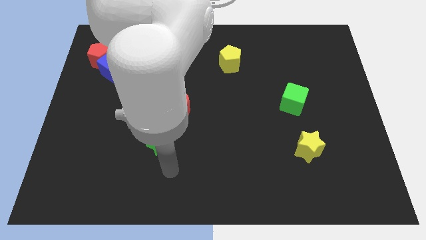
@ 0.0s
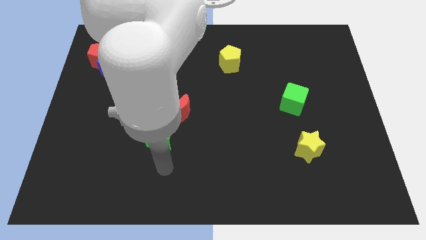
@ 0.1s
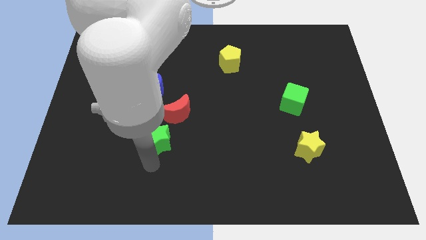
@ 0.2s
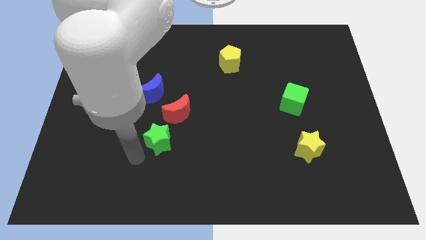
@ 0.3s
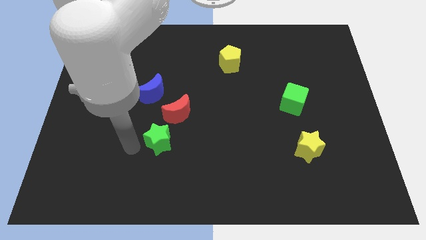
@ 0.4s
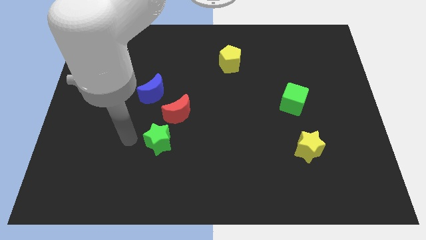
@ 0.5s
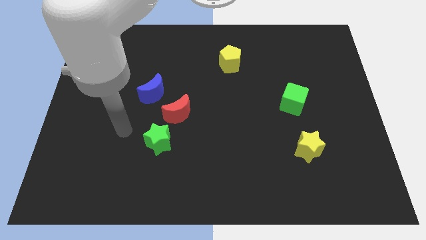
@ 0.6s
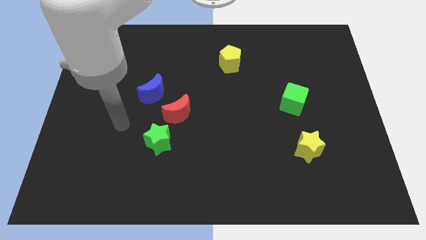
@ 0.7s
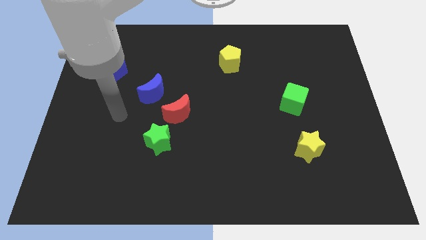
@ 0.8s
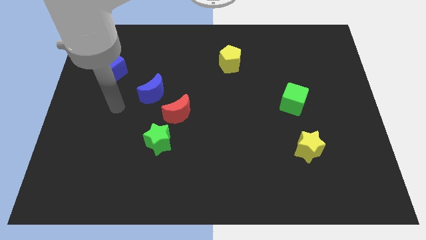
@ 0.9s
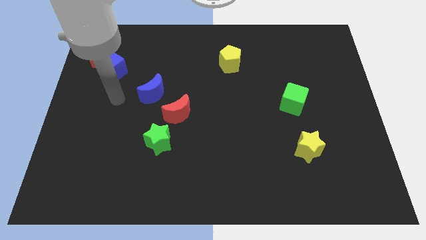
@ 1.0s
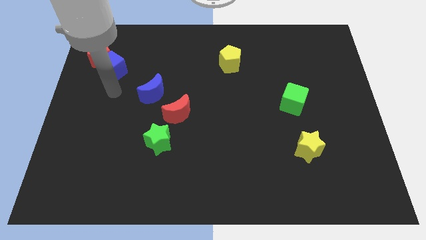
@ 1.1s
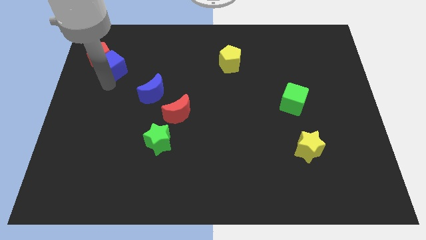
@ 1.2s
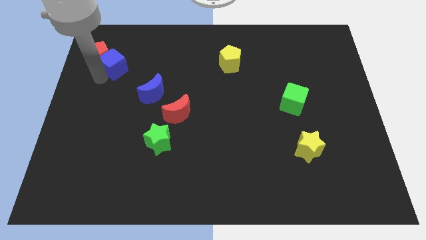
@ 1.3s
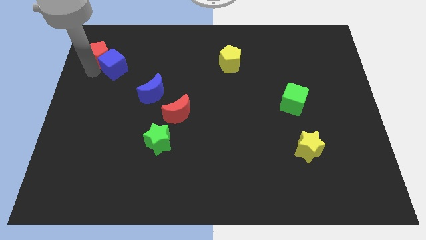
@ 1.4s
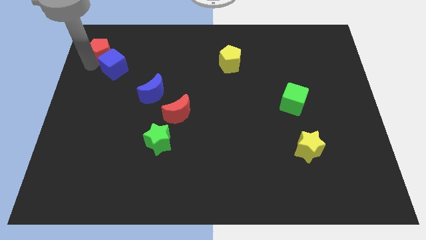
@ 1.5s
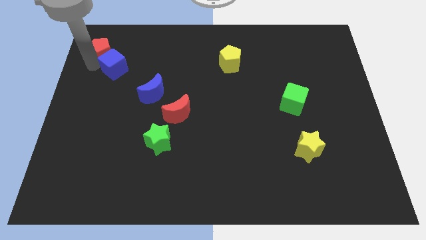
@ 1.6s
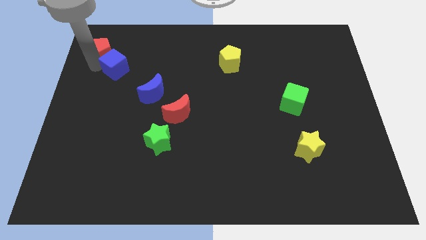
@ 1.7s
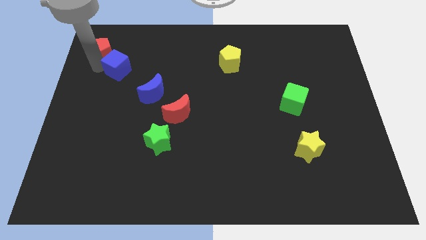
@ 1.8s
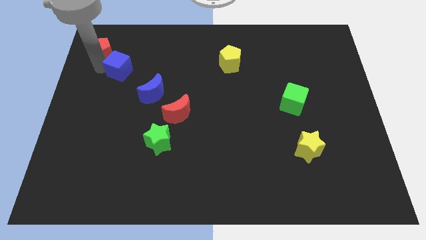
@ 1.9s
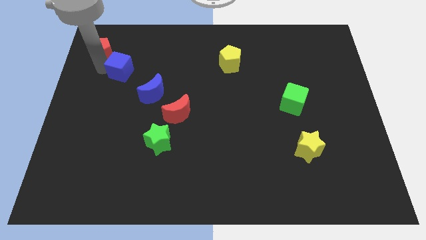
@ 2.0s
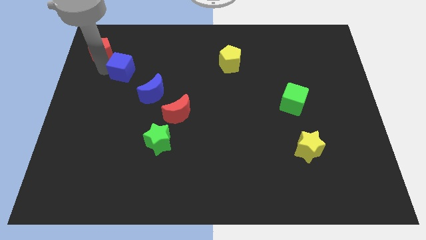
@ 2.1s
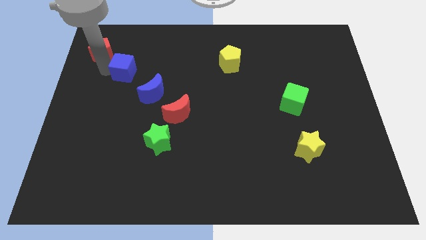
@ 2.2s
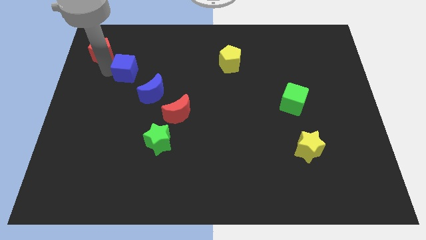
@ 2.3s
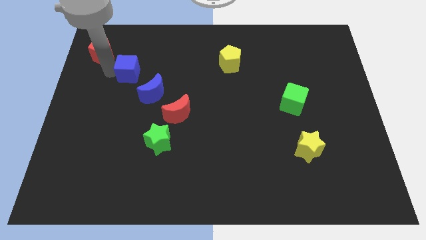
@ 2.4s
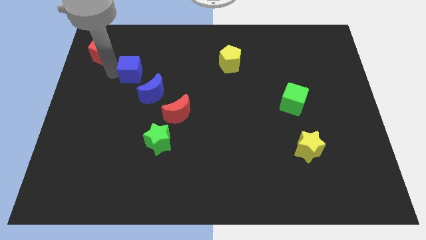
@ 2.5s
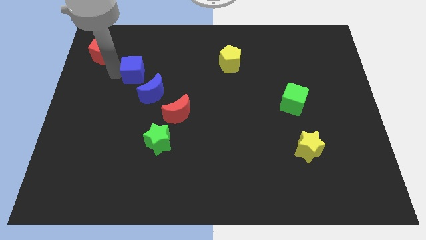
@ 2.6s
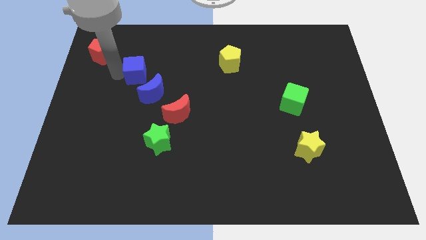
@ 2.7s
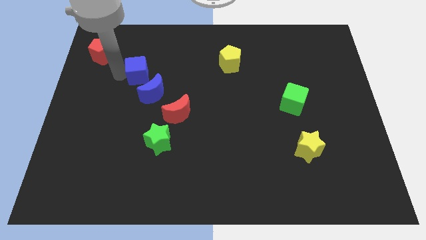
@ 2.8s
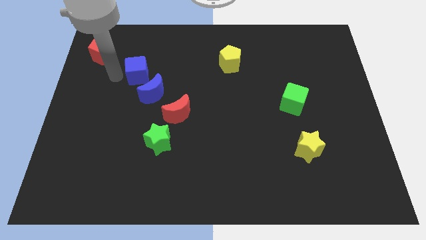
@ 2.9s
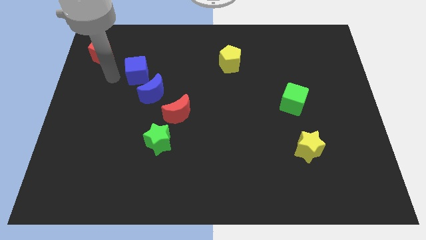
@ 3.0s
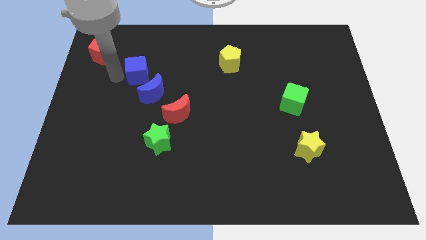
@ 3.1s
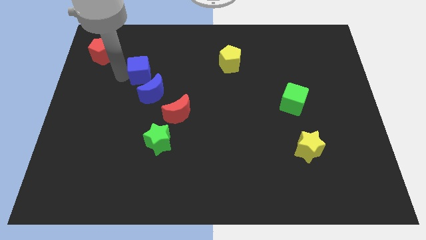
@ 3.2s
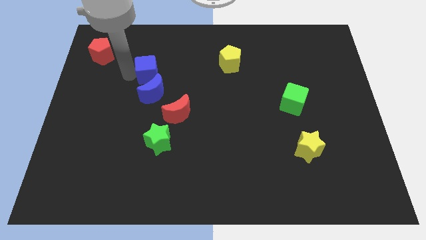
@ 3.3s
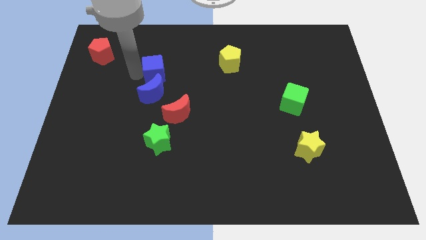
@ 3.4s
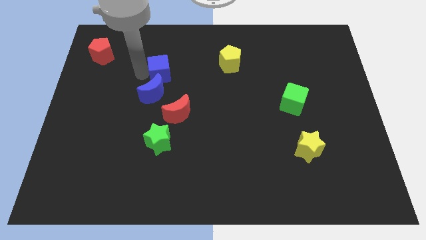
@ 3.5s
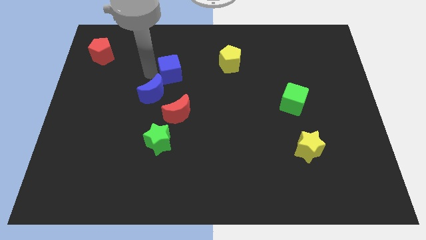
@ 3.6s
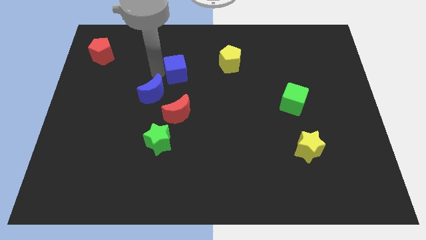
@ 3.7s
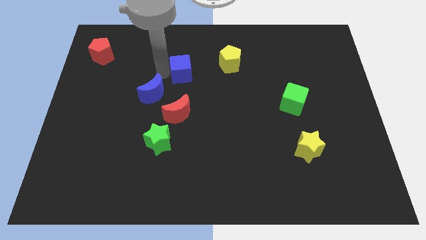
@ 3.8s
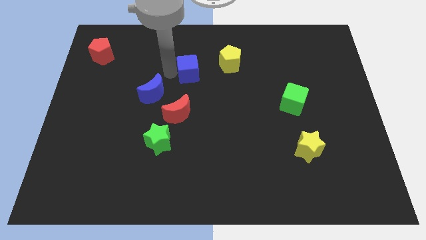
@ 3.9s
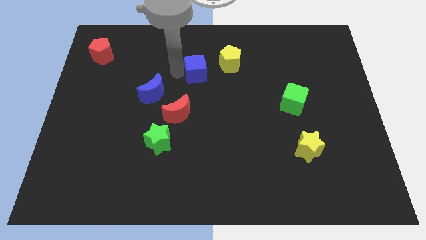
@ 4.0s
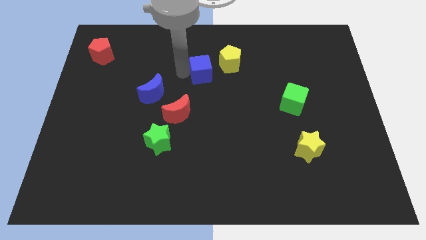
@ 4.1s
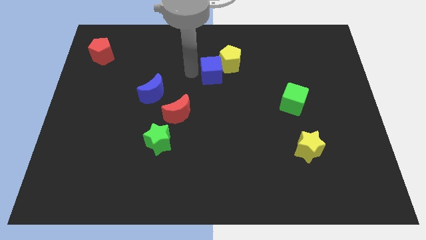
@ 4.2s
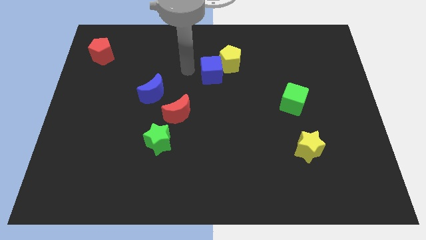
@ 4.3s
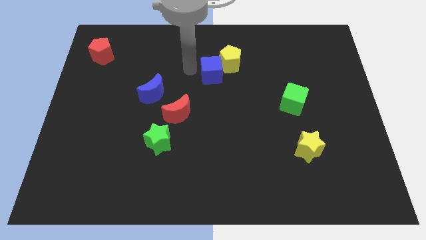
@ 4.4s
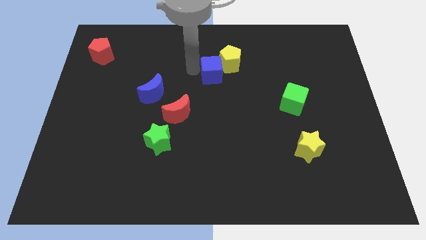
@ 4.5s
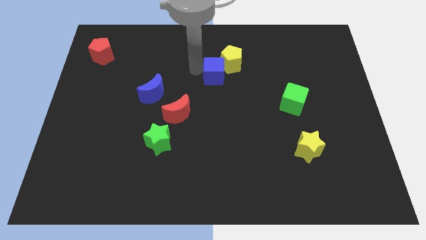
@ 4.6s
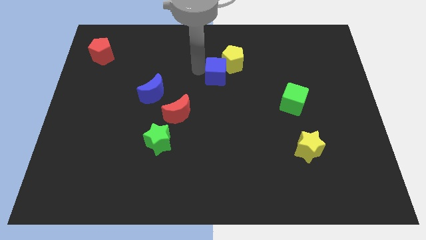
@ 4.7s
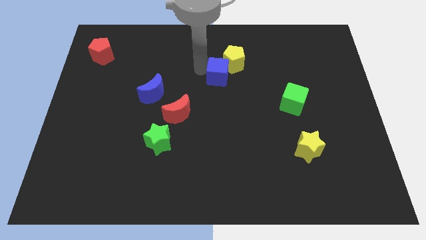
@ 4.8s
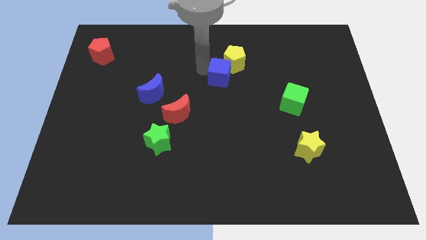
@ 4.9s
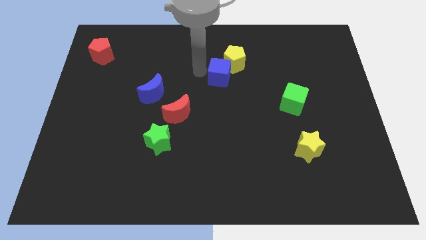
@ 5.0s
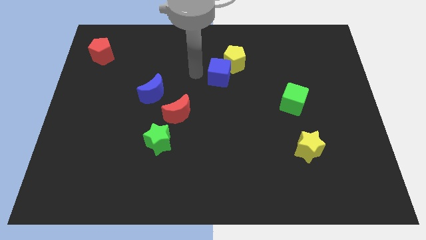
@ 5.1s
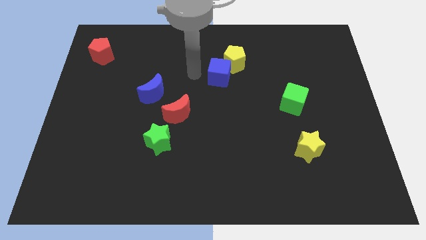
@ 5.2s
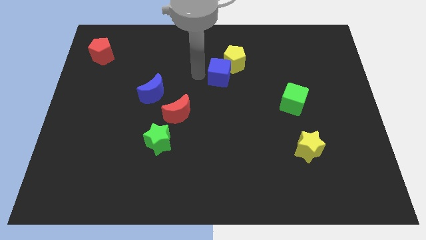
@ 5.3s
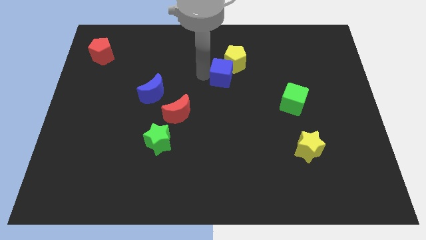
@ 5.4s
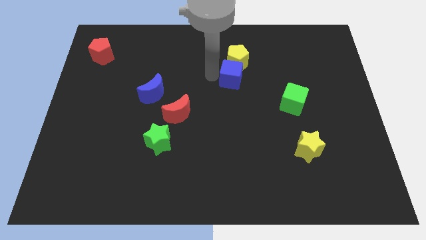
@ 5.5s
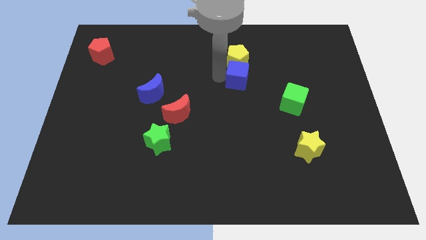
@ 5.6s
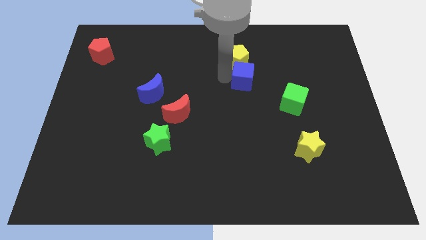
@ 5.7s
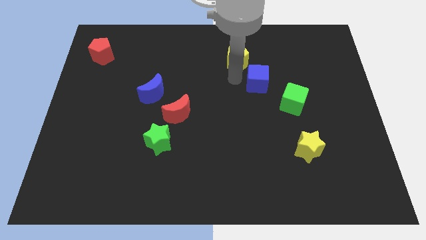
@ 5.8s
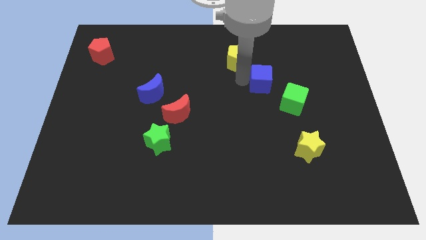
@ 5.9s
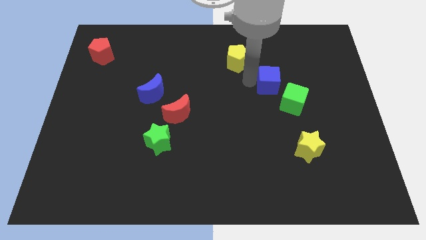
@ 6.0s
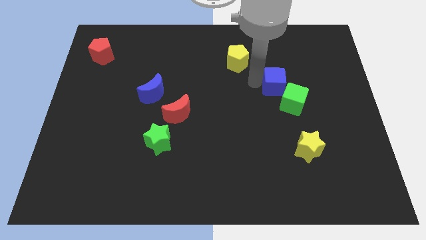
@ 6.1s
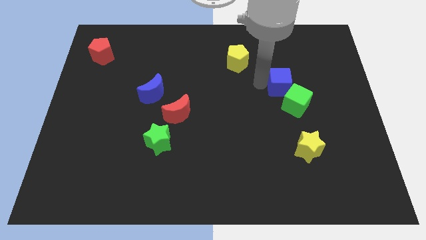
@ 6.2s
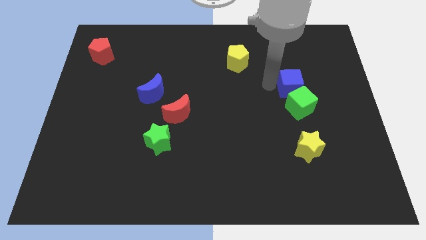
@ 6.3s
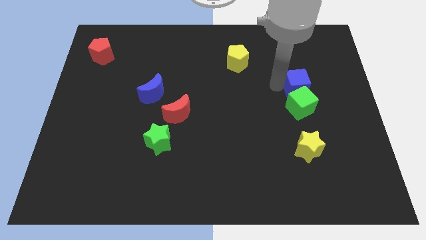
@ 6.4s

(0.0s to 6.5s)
push the blue cube diagonally up and to the right of the green cube
